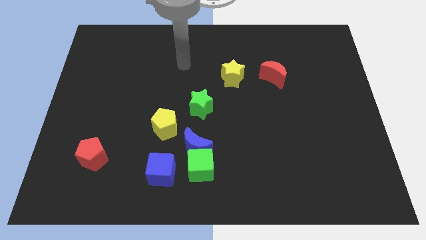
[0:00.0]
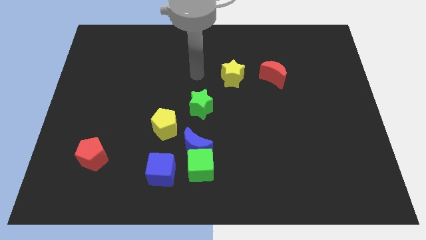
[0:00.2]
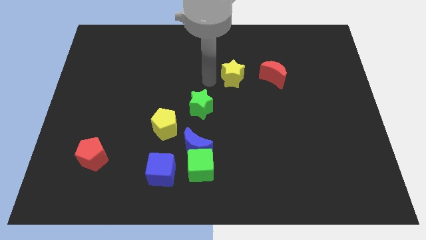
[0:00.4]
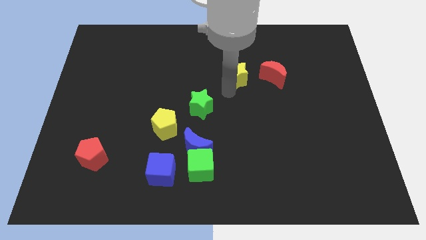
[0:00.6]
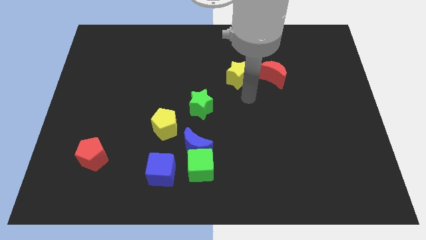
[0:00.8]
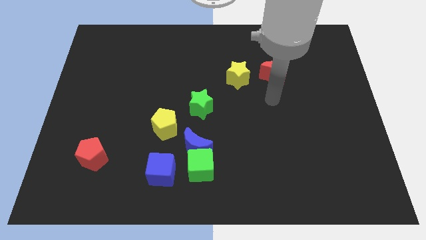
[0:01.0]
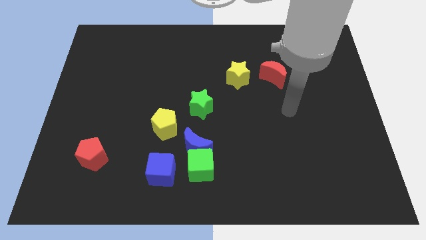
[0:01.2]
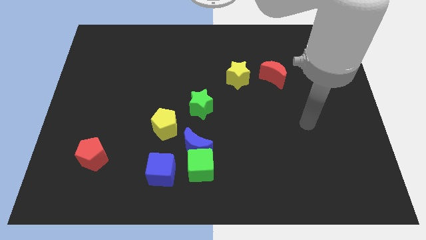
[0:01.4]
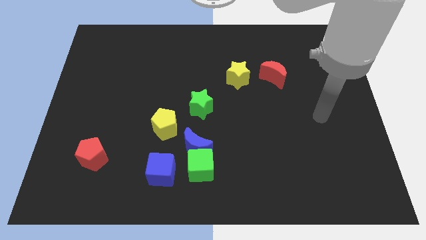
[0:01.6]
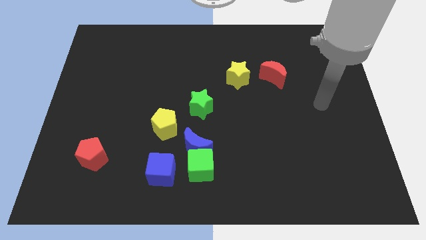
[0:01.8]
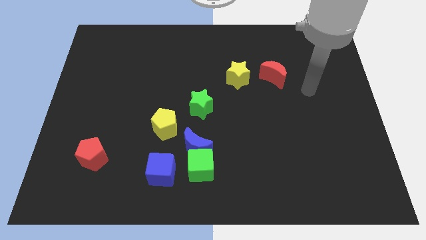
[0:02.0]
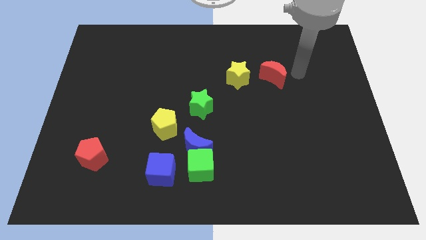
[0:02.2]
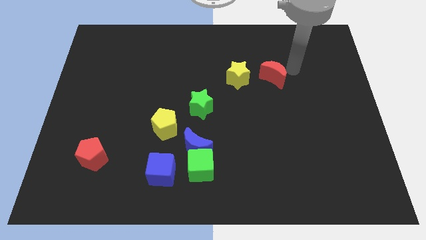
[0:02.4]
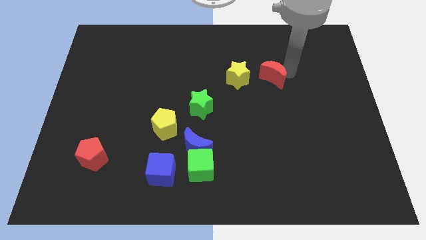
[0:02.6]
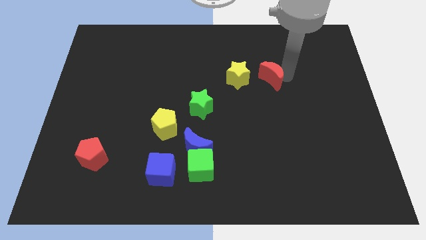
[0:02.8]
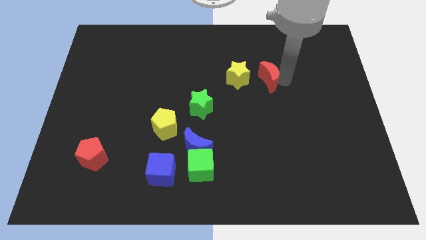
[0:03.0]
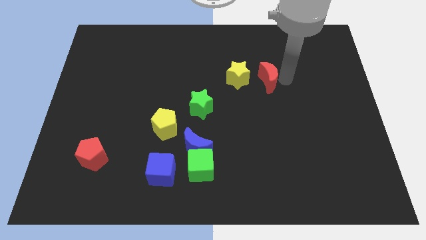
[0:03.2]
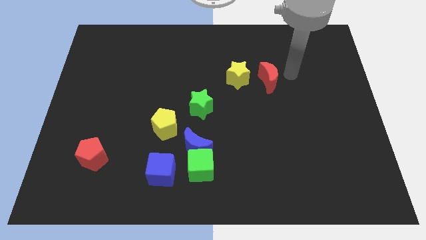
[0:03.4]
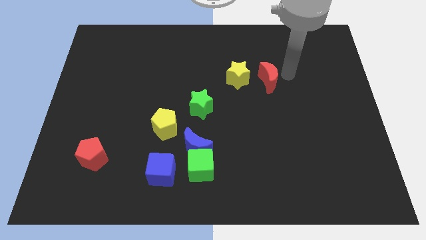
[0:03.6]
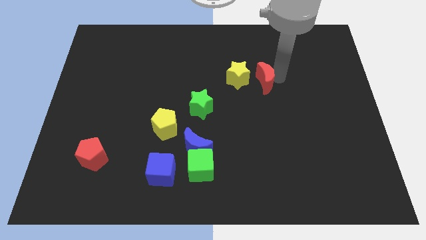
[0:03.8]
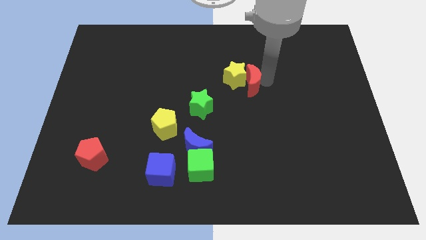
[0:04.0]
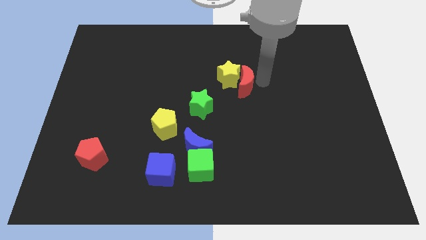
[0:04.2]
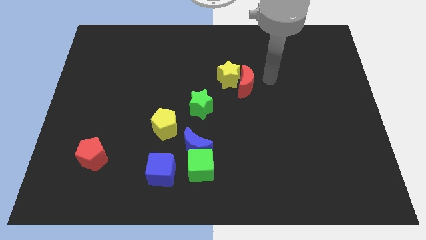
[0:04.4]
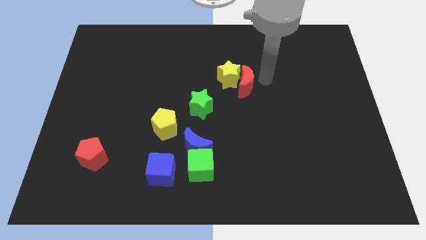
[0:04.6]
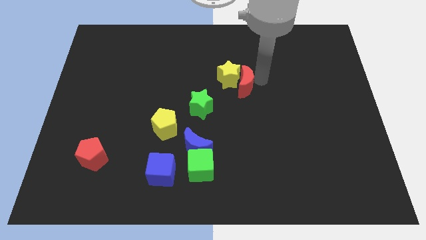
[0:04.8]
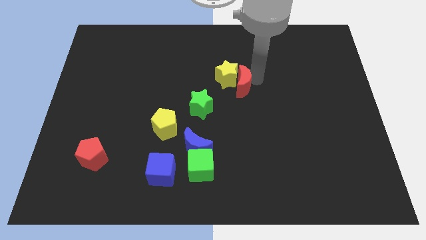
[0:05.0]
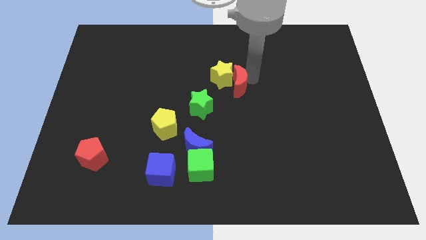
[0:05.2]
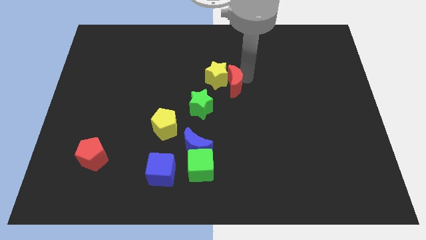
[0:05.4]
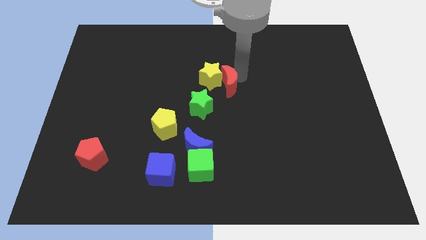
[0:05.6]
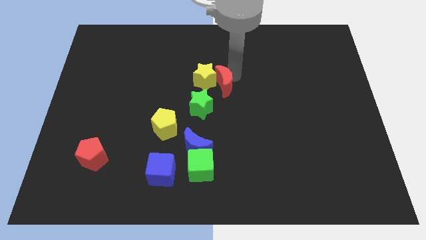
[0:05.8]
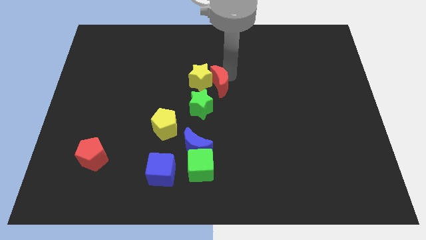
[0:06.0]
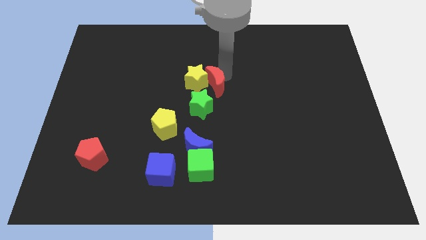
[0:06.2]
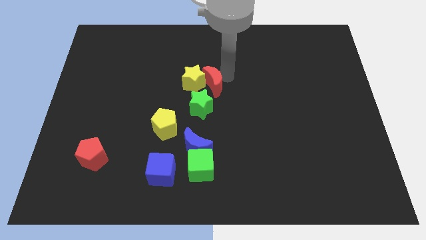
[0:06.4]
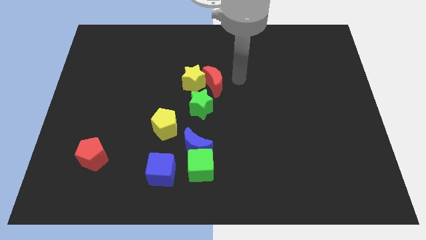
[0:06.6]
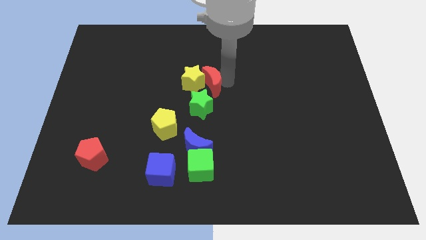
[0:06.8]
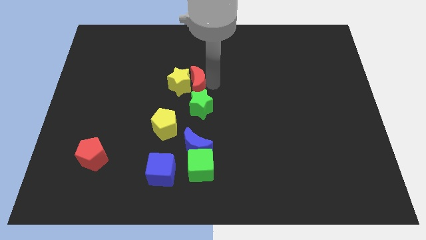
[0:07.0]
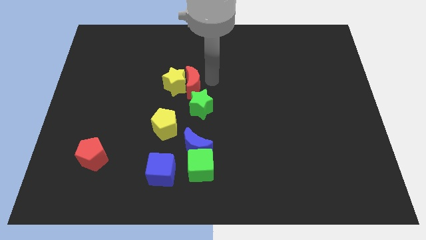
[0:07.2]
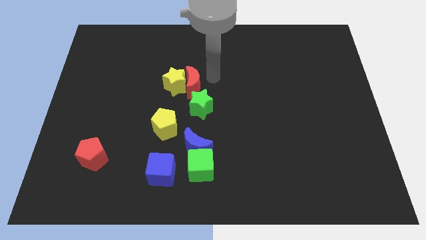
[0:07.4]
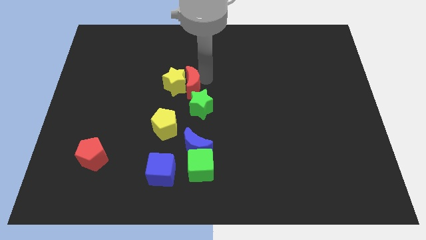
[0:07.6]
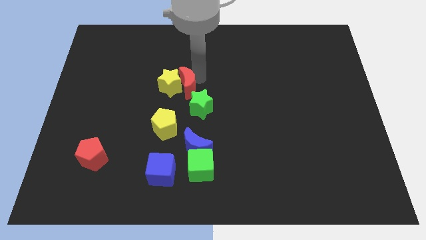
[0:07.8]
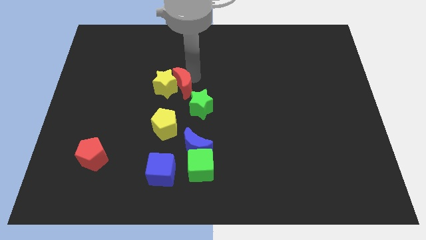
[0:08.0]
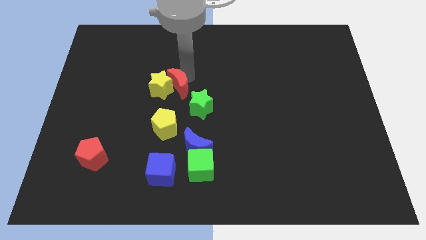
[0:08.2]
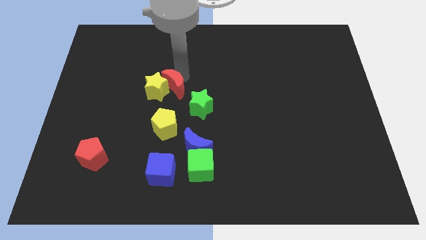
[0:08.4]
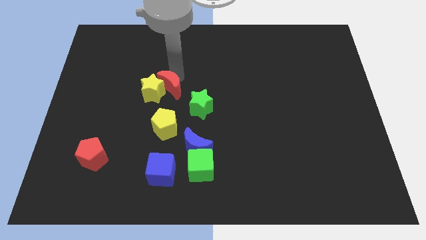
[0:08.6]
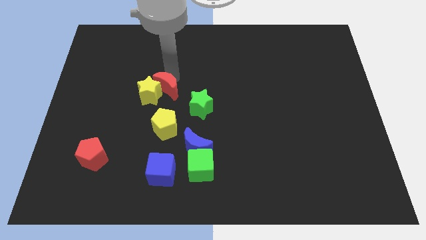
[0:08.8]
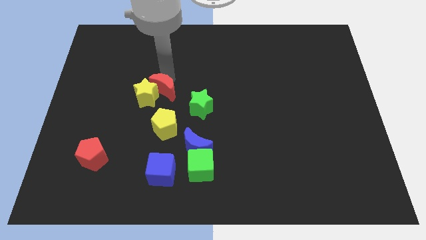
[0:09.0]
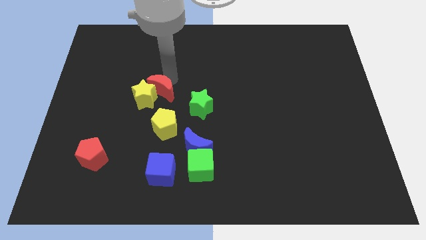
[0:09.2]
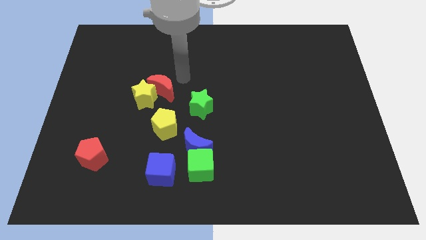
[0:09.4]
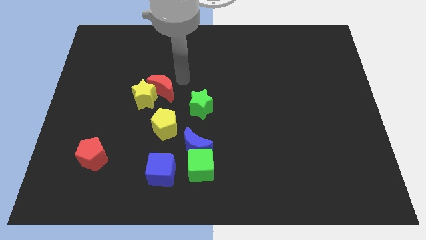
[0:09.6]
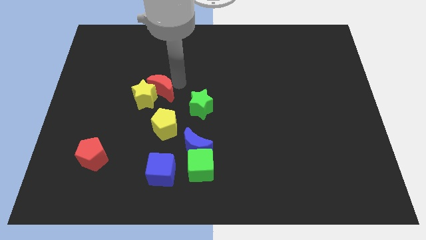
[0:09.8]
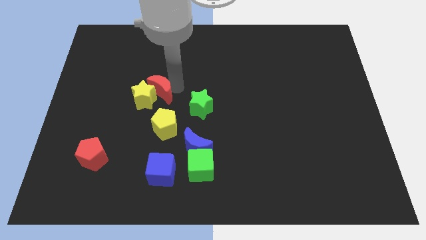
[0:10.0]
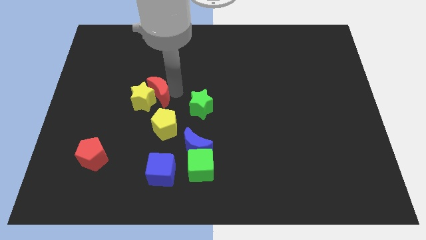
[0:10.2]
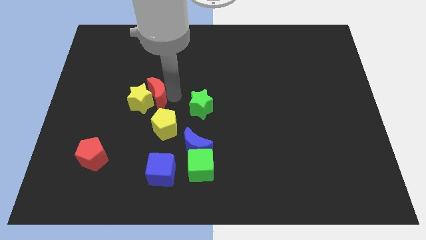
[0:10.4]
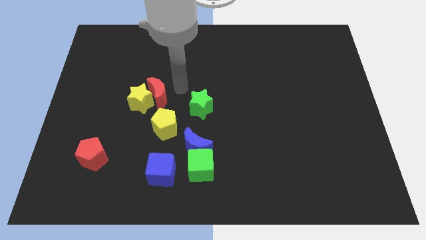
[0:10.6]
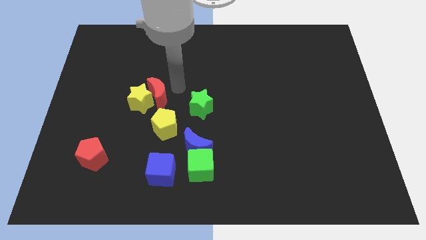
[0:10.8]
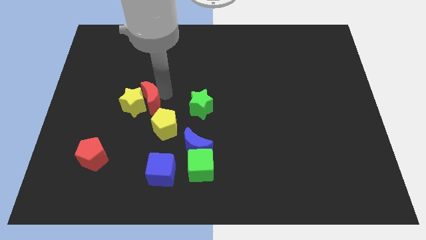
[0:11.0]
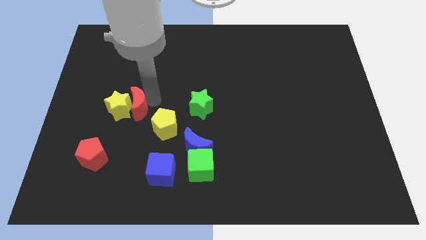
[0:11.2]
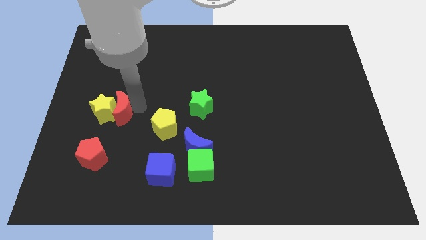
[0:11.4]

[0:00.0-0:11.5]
put the red moon to the top of the red pentagon

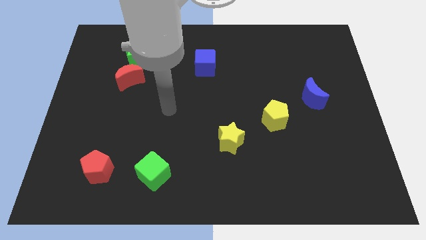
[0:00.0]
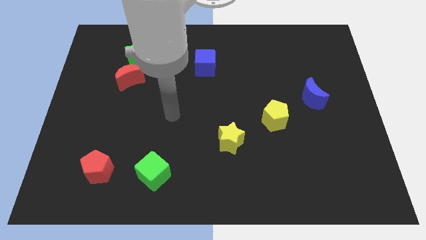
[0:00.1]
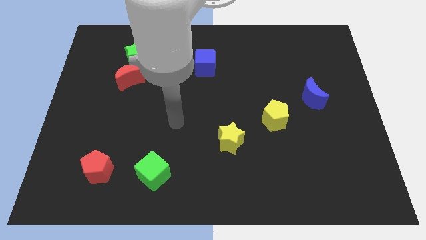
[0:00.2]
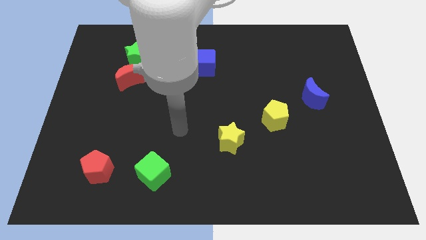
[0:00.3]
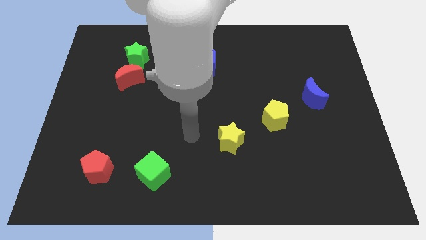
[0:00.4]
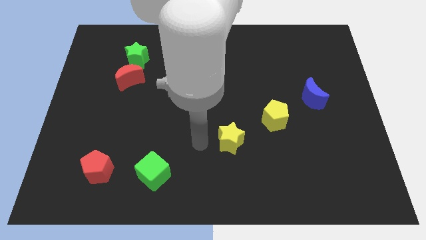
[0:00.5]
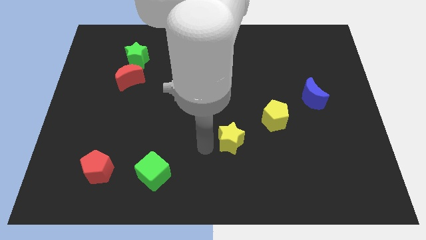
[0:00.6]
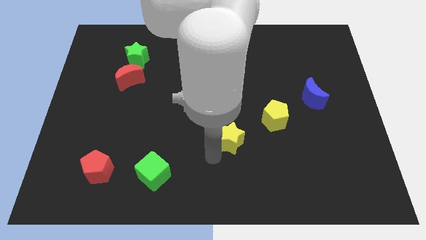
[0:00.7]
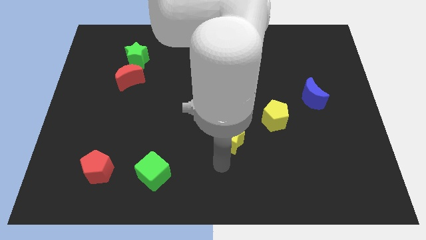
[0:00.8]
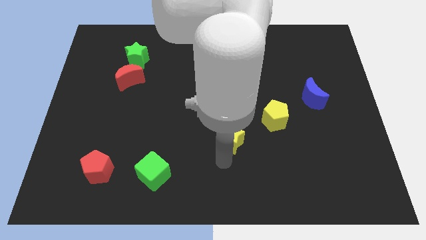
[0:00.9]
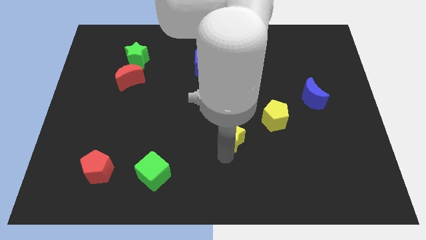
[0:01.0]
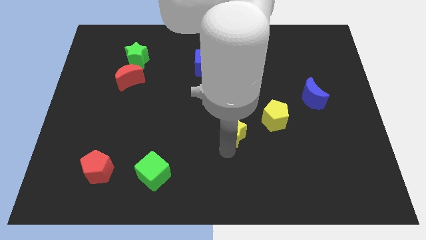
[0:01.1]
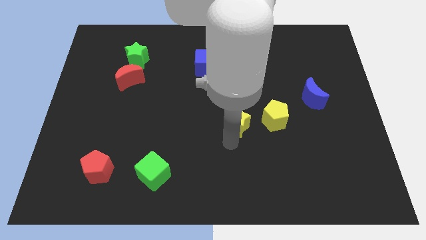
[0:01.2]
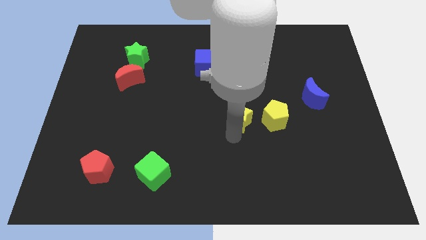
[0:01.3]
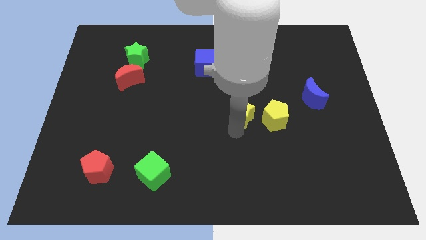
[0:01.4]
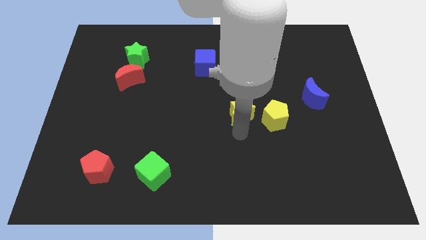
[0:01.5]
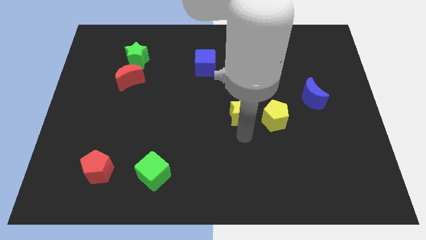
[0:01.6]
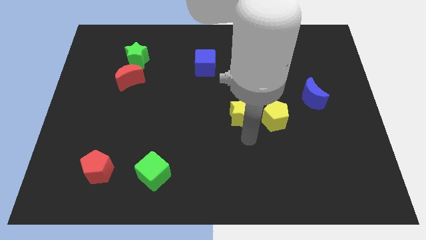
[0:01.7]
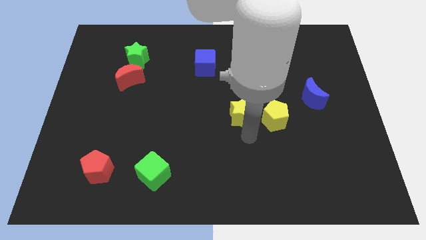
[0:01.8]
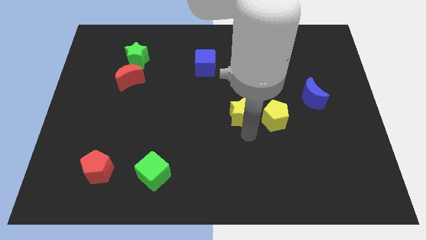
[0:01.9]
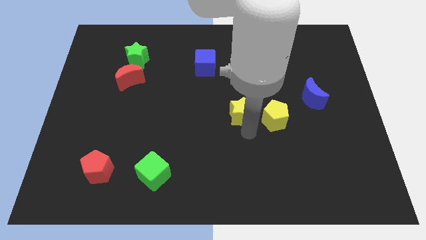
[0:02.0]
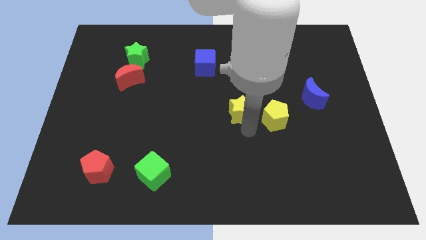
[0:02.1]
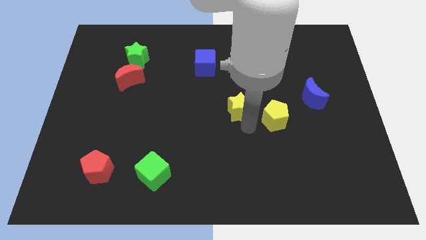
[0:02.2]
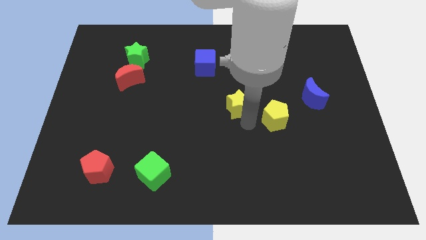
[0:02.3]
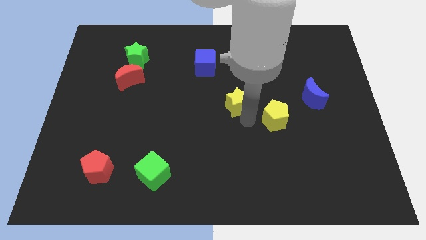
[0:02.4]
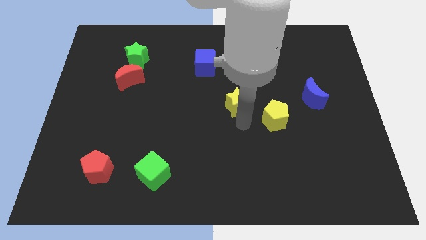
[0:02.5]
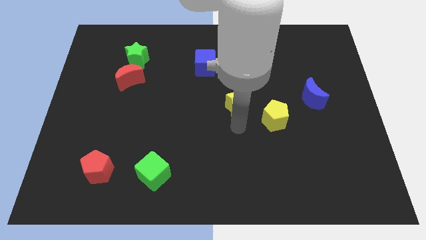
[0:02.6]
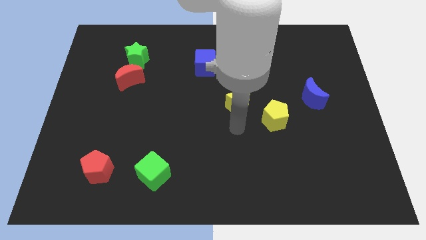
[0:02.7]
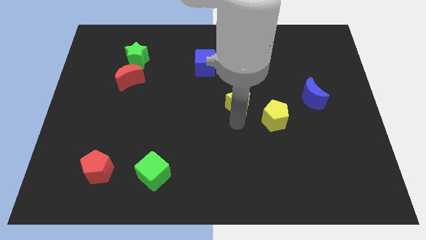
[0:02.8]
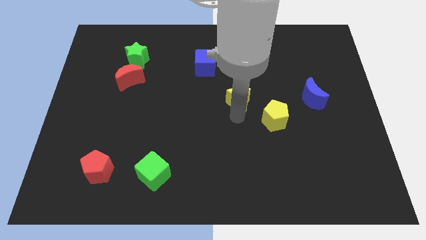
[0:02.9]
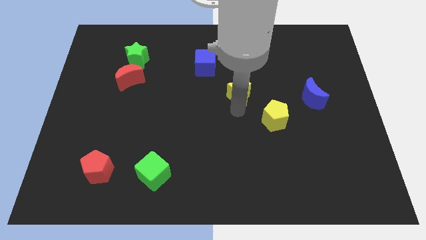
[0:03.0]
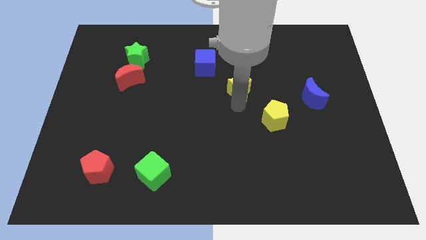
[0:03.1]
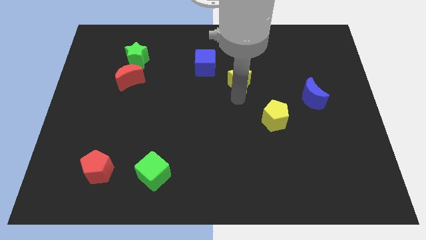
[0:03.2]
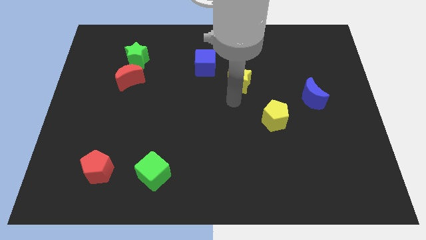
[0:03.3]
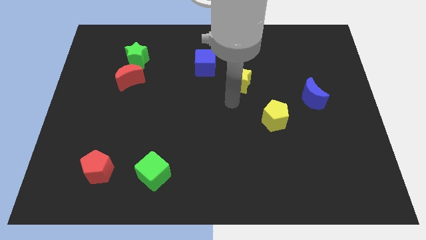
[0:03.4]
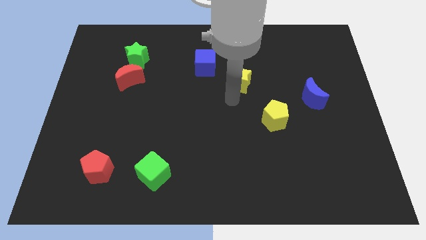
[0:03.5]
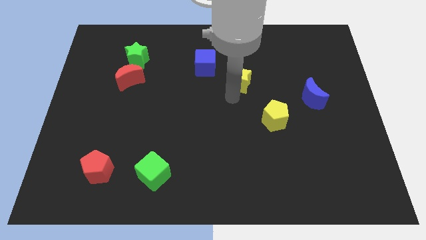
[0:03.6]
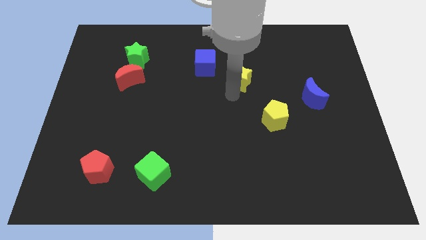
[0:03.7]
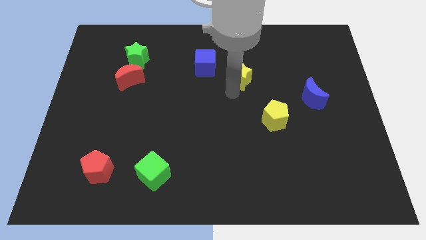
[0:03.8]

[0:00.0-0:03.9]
move the yellow star to the right of the blue cube
